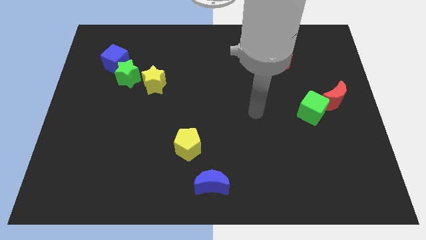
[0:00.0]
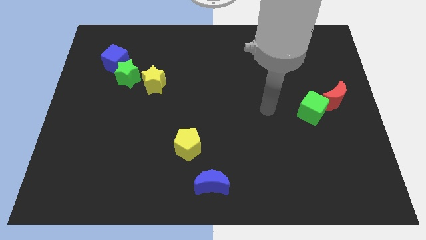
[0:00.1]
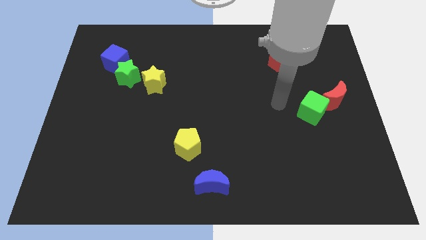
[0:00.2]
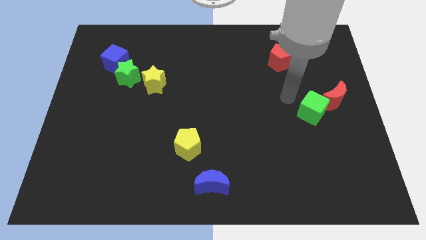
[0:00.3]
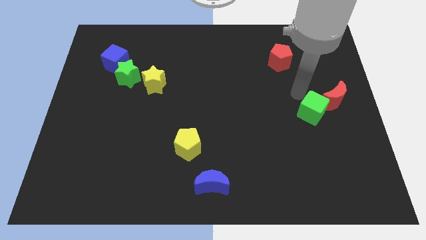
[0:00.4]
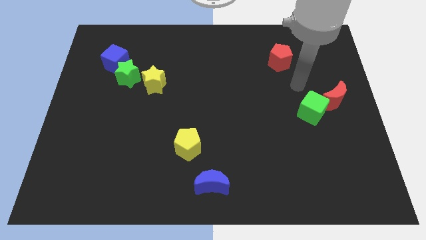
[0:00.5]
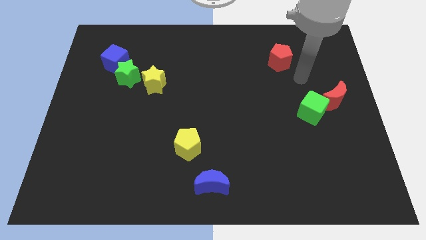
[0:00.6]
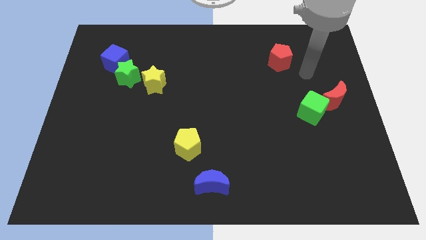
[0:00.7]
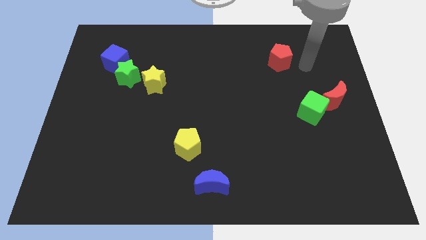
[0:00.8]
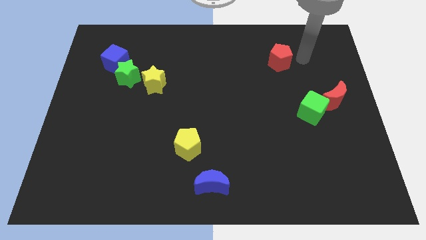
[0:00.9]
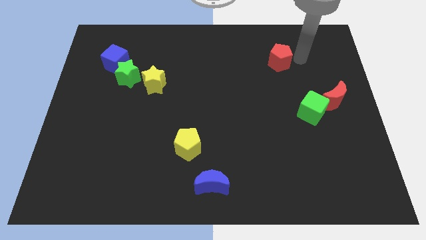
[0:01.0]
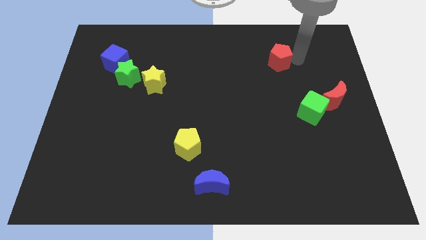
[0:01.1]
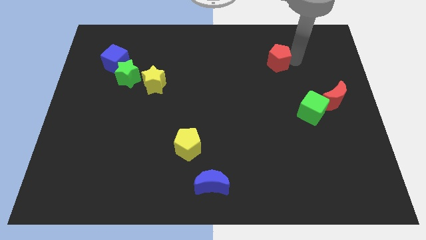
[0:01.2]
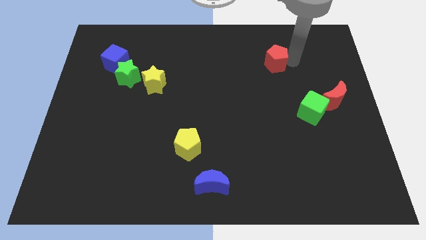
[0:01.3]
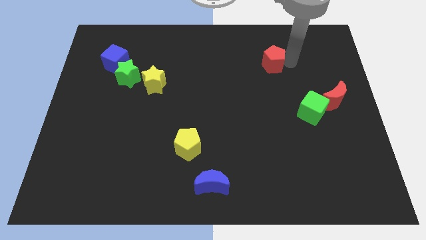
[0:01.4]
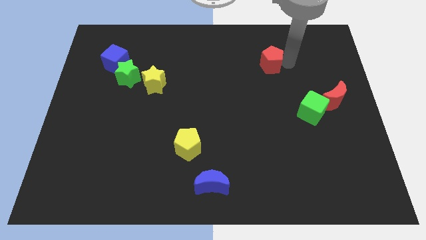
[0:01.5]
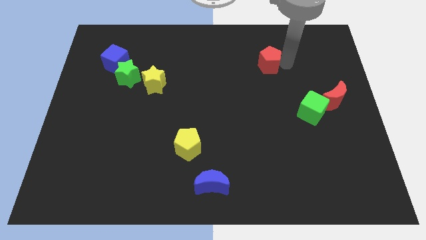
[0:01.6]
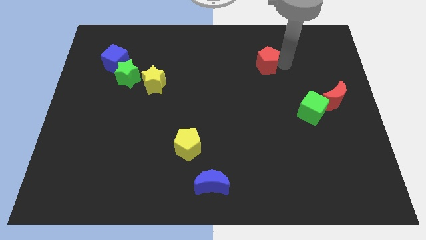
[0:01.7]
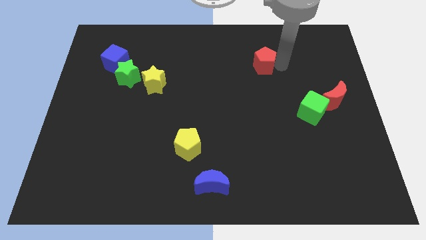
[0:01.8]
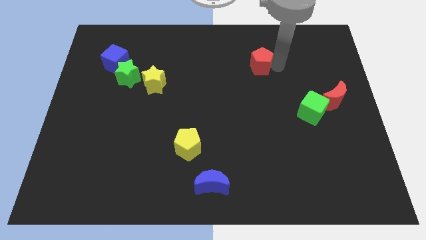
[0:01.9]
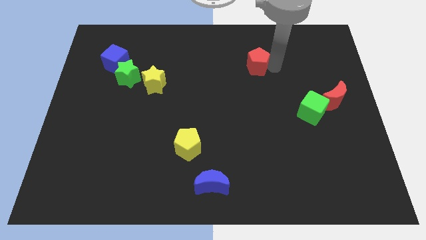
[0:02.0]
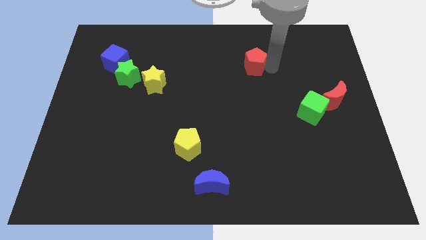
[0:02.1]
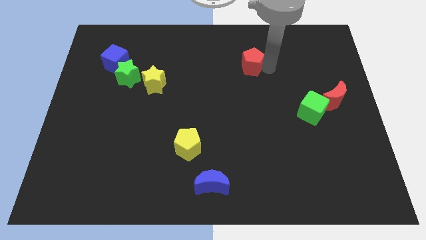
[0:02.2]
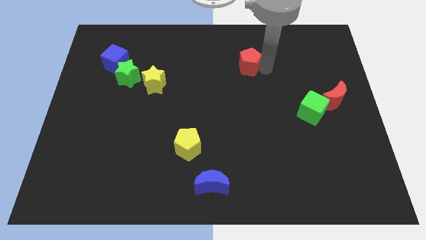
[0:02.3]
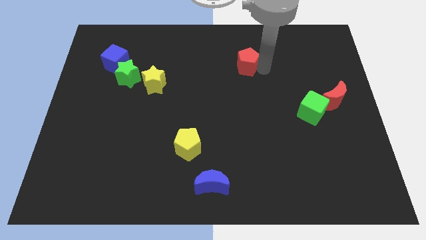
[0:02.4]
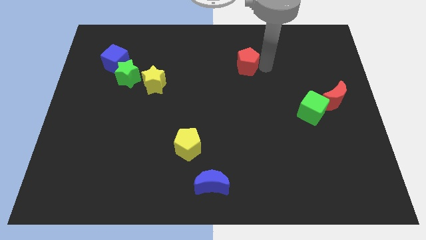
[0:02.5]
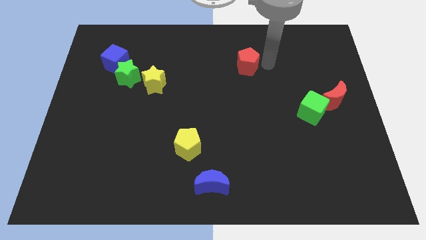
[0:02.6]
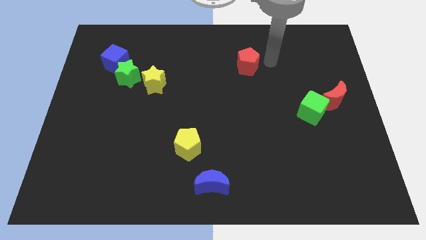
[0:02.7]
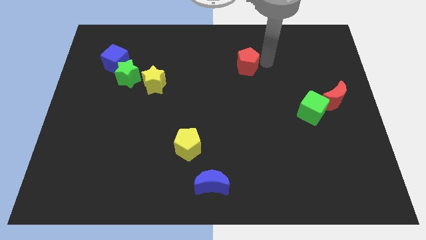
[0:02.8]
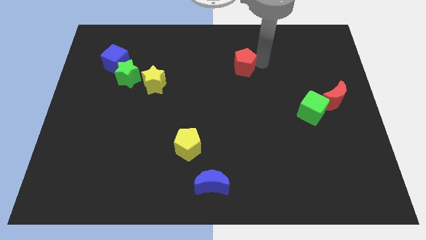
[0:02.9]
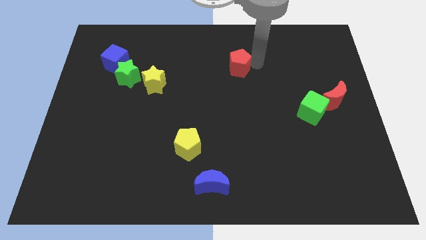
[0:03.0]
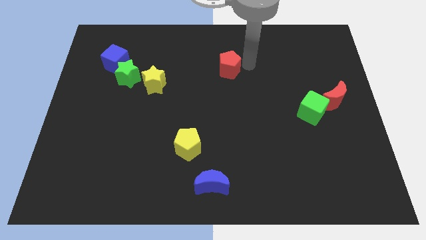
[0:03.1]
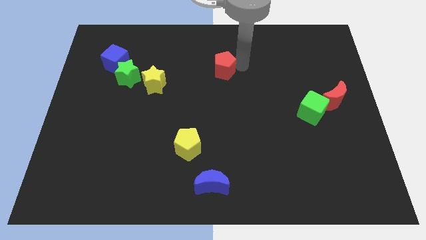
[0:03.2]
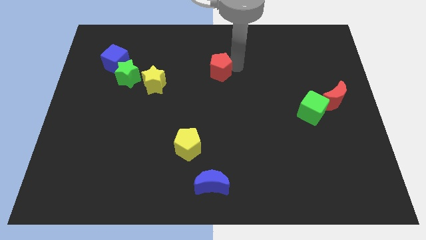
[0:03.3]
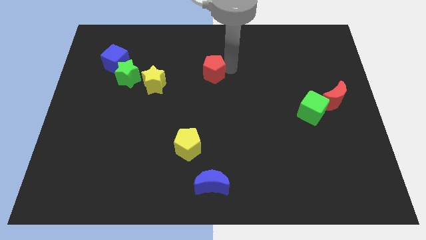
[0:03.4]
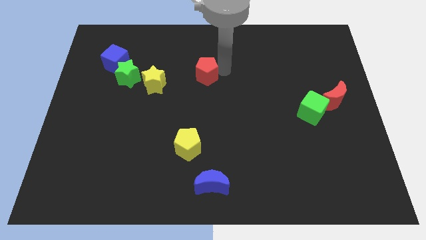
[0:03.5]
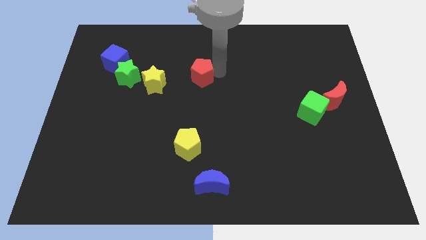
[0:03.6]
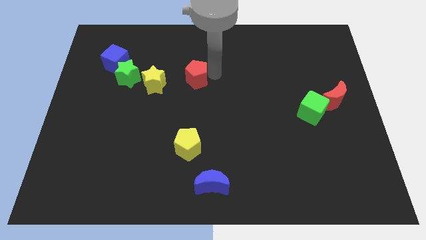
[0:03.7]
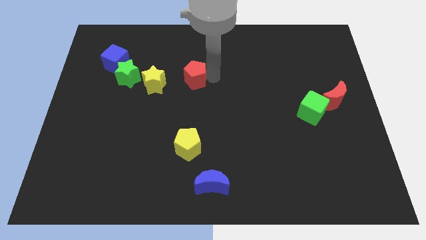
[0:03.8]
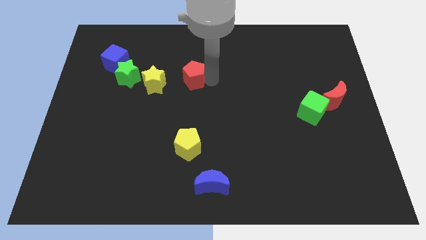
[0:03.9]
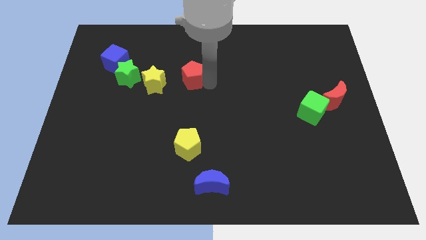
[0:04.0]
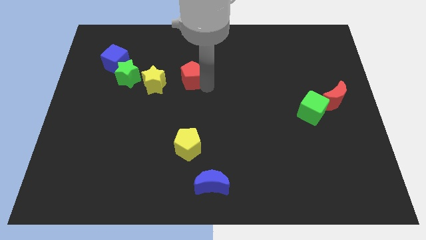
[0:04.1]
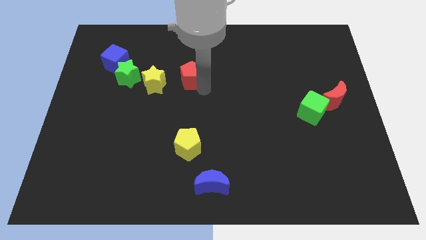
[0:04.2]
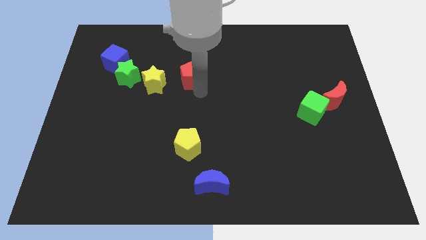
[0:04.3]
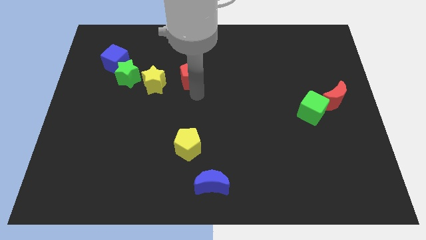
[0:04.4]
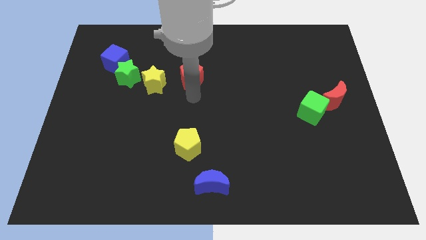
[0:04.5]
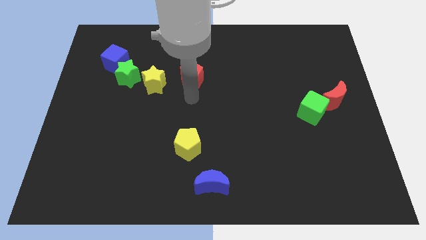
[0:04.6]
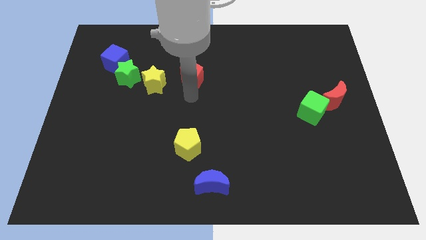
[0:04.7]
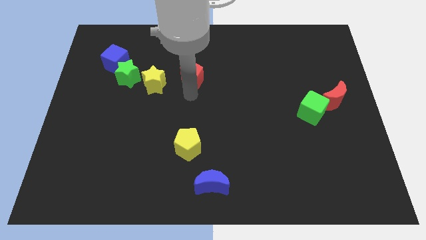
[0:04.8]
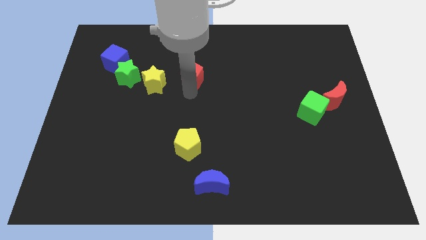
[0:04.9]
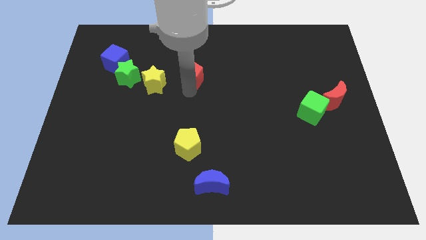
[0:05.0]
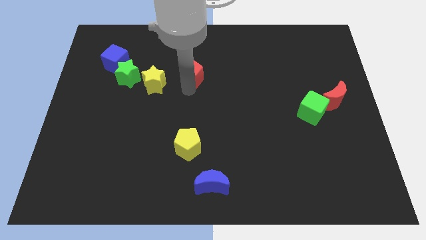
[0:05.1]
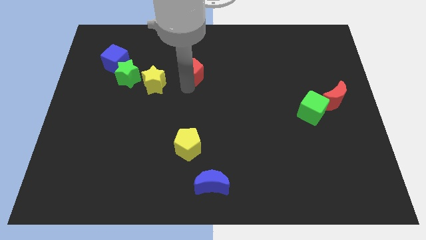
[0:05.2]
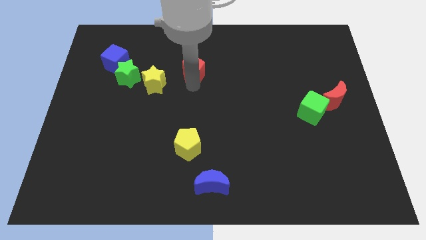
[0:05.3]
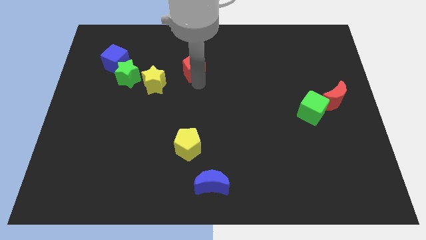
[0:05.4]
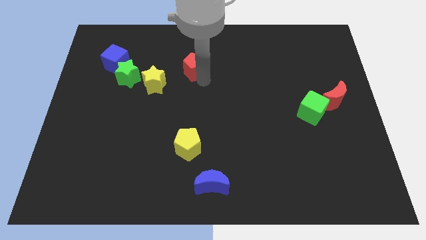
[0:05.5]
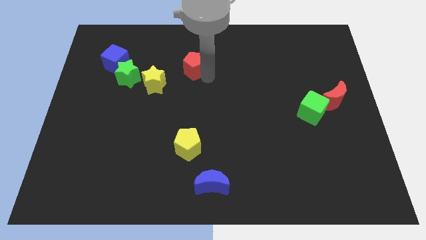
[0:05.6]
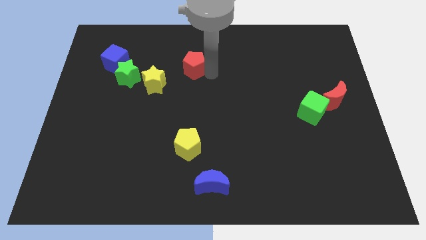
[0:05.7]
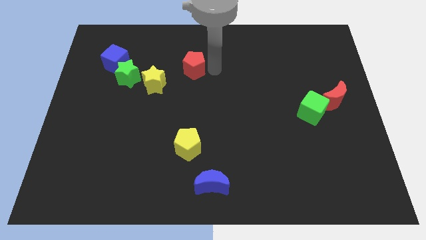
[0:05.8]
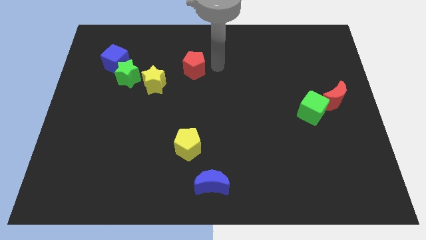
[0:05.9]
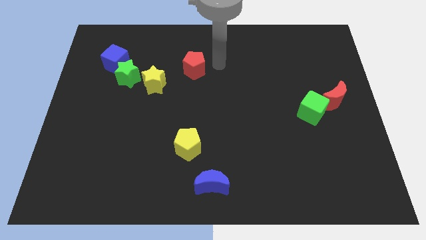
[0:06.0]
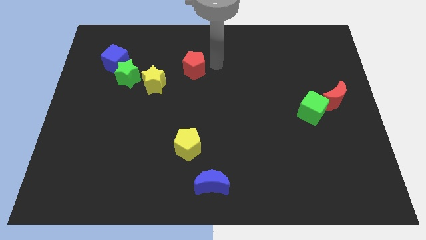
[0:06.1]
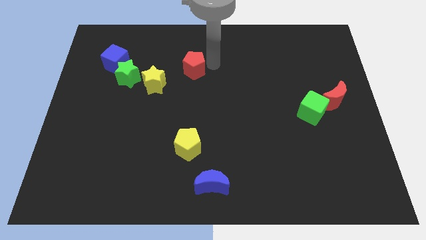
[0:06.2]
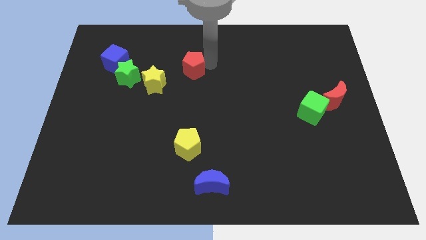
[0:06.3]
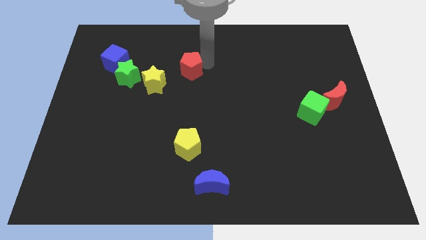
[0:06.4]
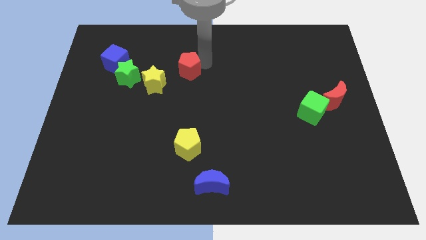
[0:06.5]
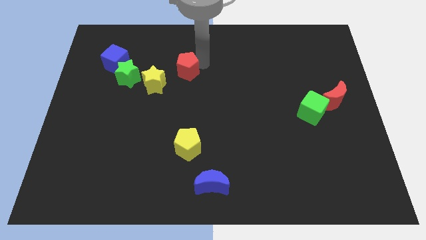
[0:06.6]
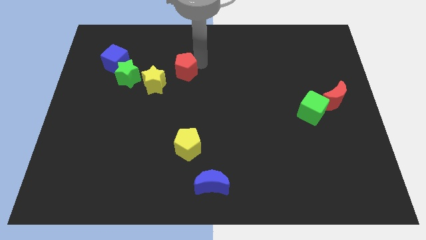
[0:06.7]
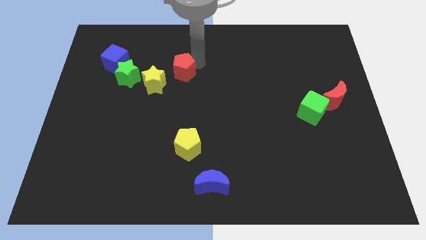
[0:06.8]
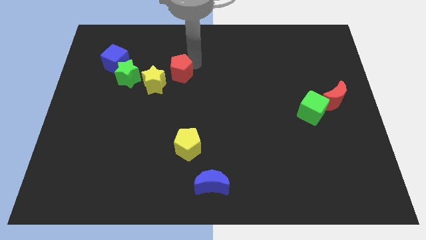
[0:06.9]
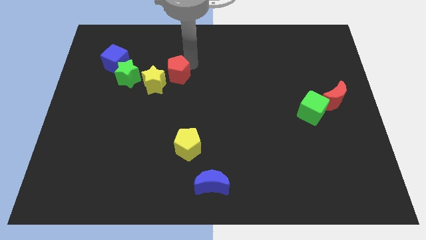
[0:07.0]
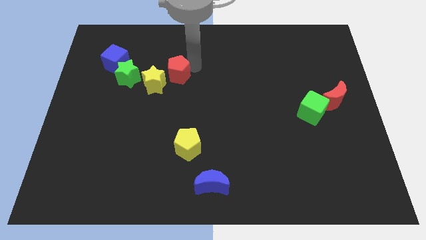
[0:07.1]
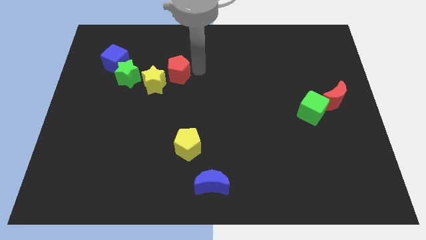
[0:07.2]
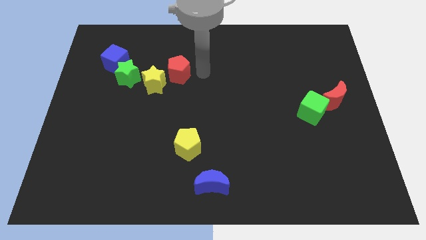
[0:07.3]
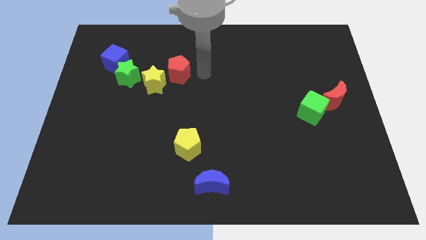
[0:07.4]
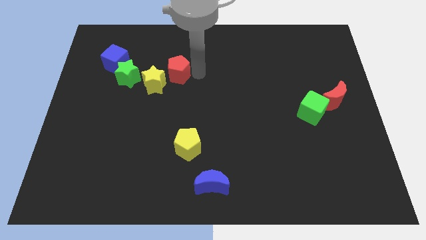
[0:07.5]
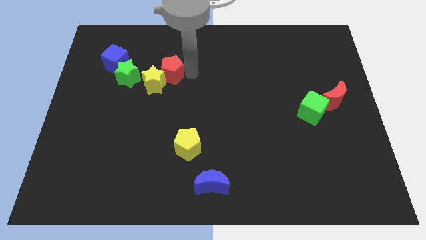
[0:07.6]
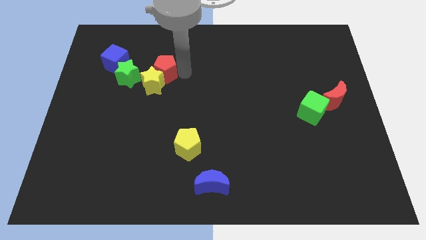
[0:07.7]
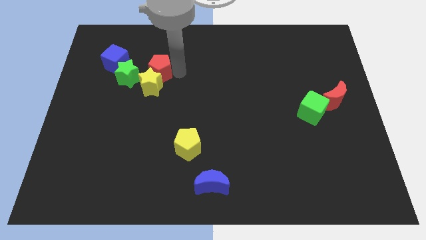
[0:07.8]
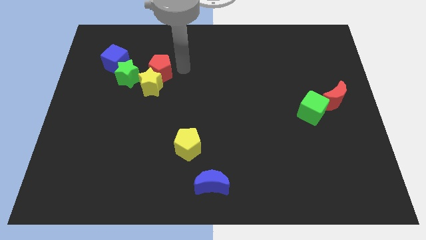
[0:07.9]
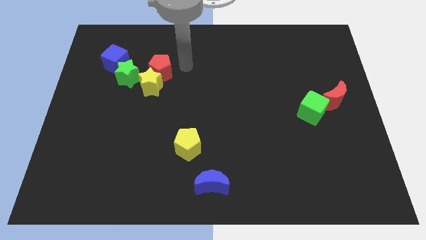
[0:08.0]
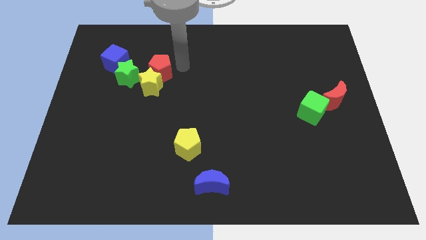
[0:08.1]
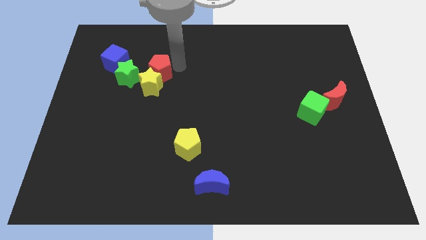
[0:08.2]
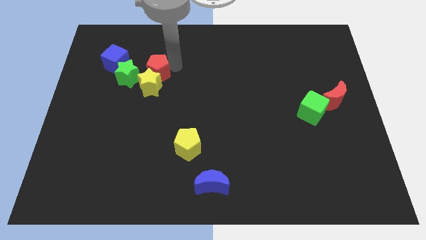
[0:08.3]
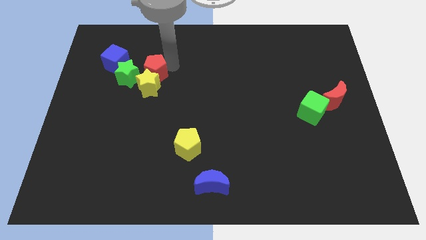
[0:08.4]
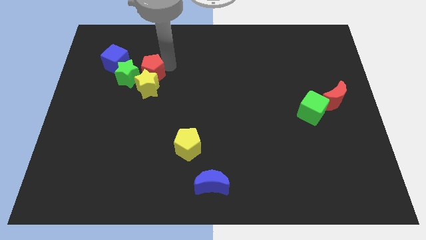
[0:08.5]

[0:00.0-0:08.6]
push the red pentagon towards the green star
